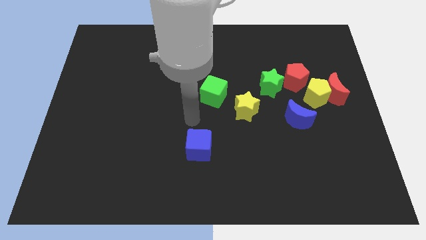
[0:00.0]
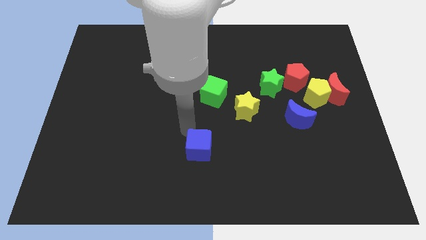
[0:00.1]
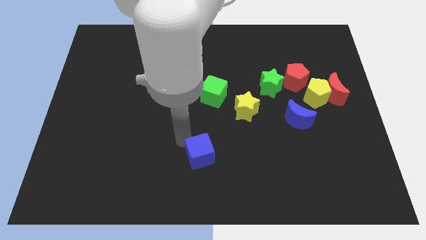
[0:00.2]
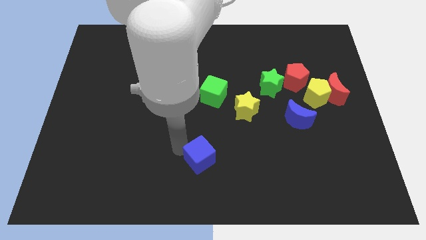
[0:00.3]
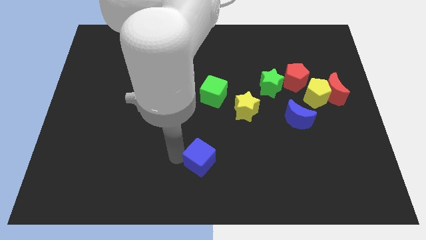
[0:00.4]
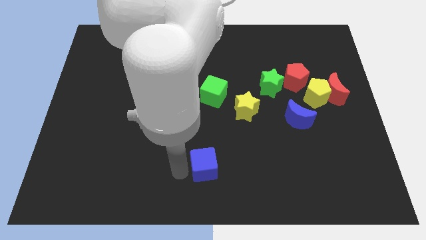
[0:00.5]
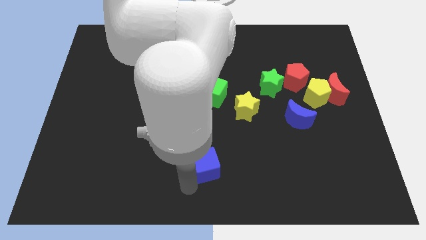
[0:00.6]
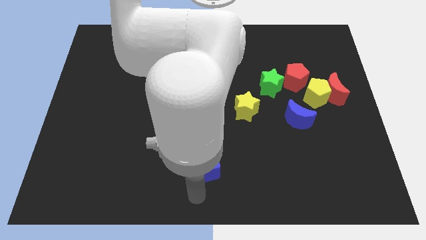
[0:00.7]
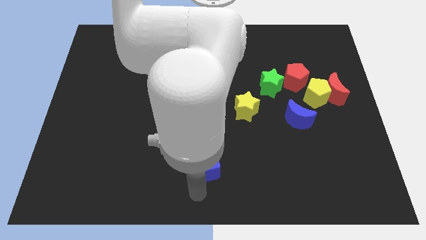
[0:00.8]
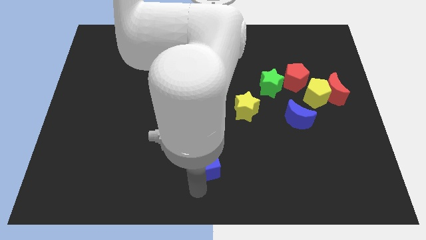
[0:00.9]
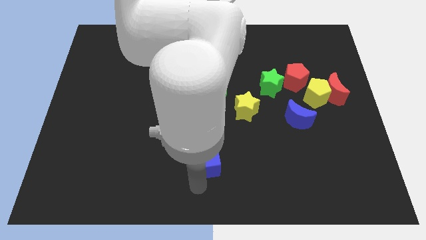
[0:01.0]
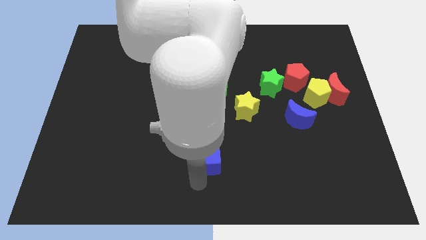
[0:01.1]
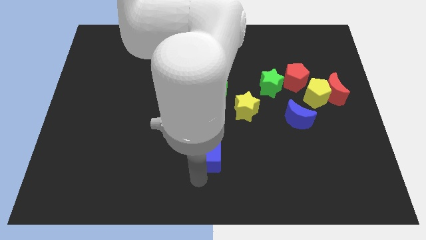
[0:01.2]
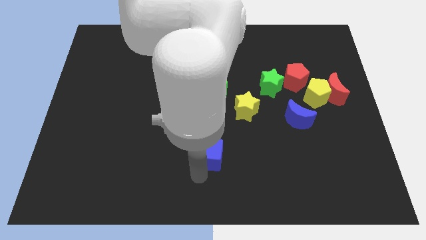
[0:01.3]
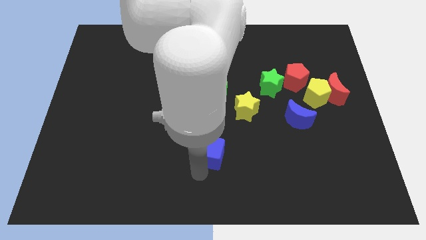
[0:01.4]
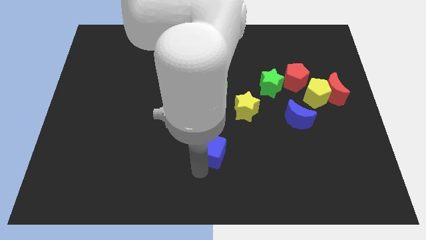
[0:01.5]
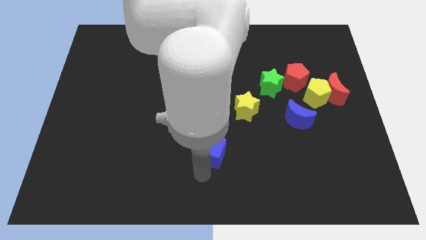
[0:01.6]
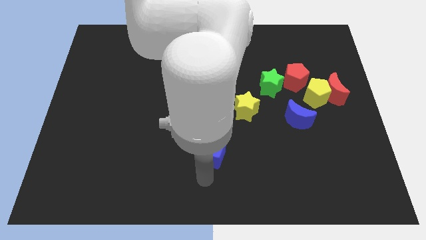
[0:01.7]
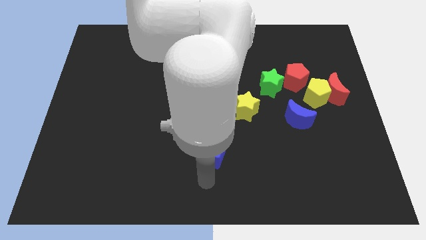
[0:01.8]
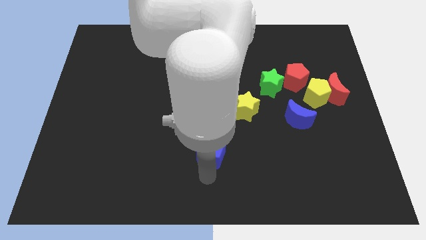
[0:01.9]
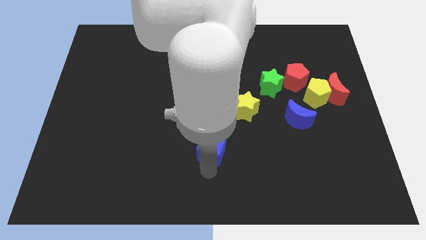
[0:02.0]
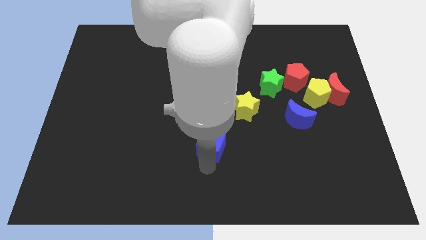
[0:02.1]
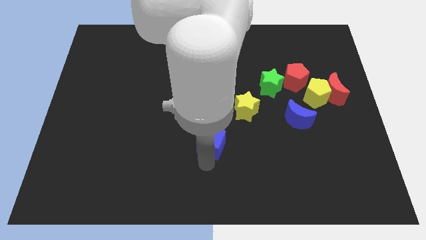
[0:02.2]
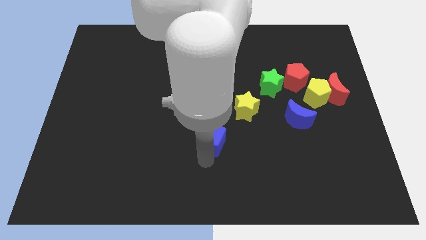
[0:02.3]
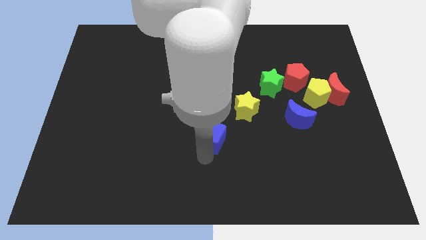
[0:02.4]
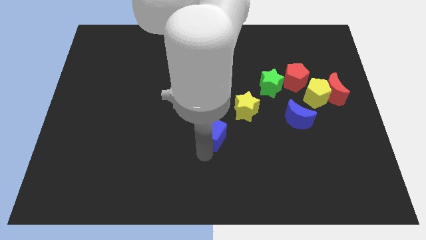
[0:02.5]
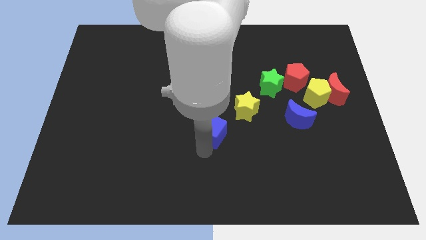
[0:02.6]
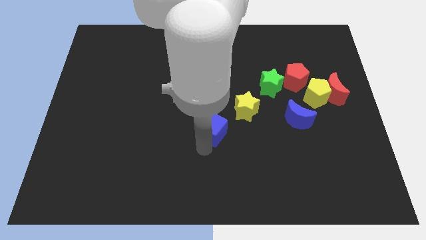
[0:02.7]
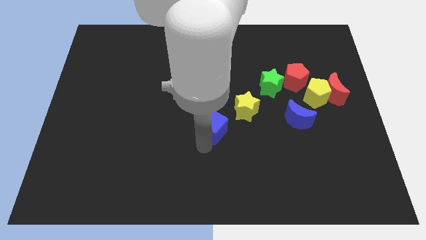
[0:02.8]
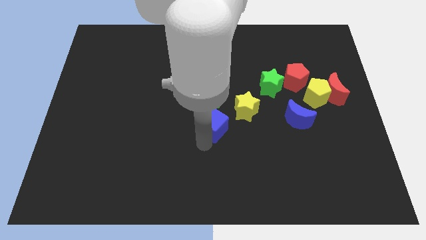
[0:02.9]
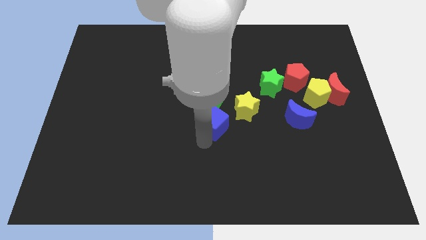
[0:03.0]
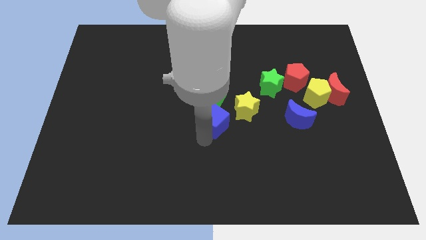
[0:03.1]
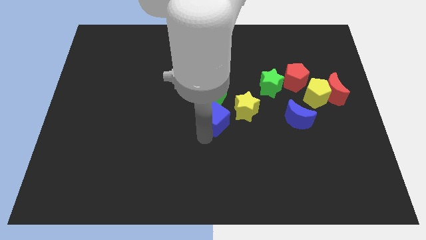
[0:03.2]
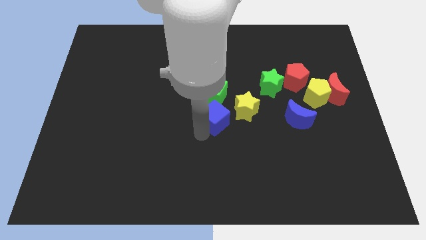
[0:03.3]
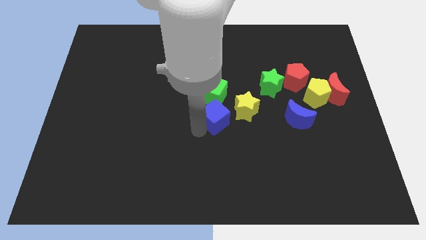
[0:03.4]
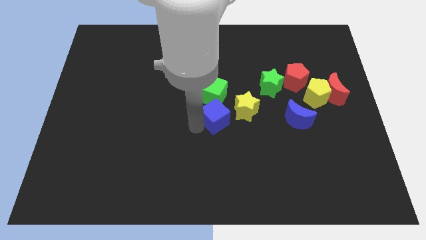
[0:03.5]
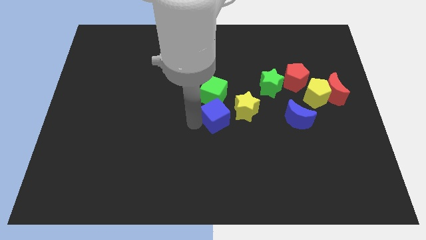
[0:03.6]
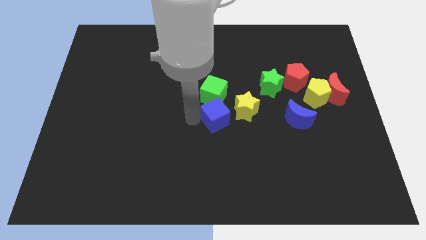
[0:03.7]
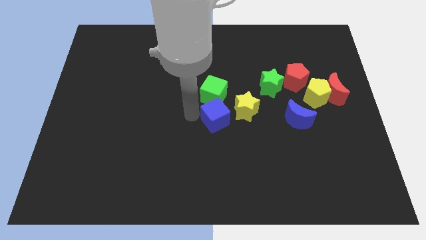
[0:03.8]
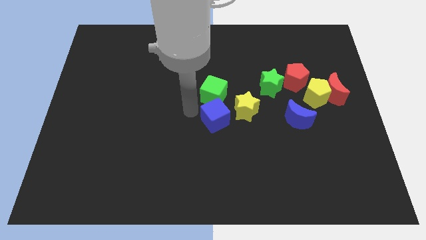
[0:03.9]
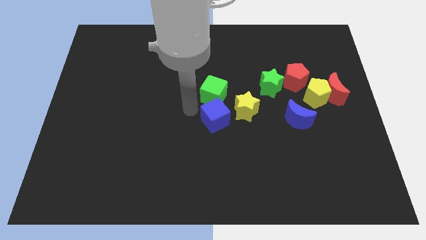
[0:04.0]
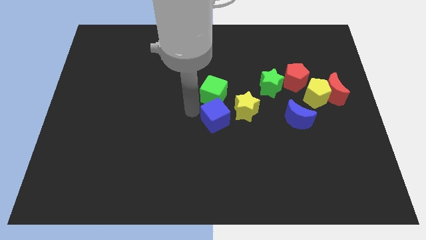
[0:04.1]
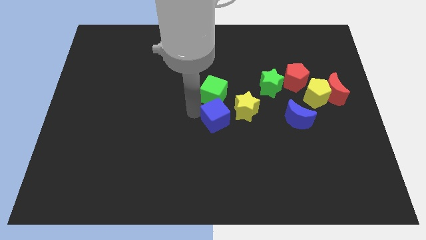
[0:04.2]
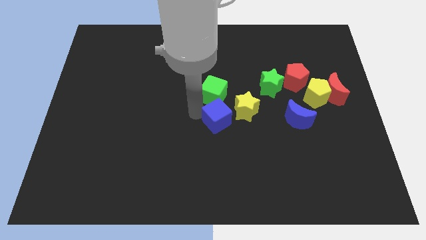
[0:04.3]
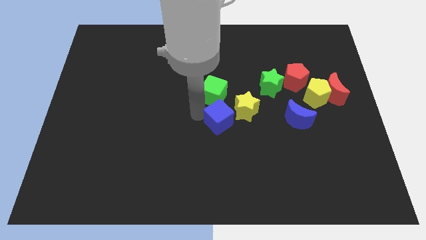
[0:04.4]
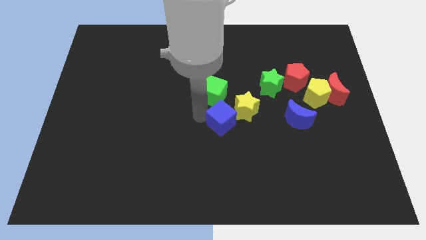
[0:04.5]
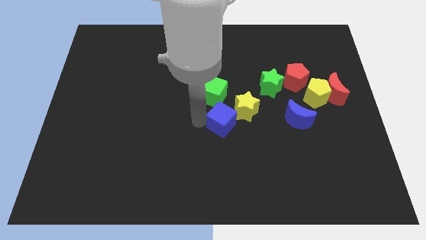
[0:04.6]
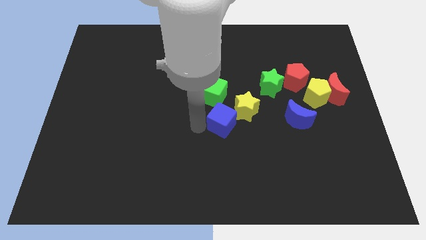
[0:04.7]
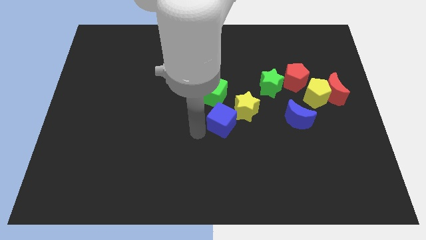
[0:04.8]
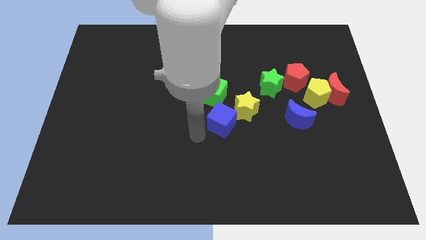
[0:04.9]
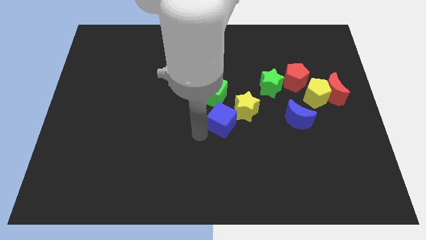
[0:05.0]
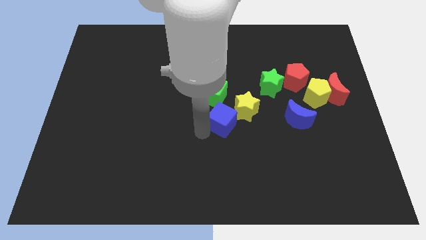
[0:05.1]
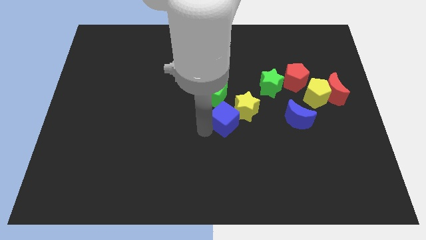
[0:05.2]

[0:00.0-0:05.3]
slide the blue cube to the yellow star

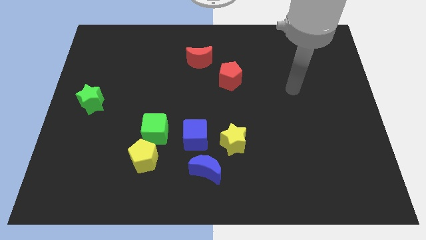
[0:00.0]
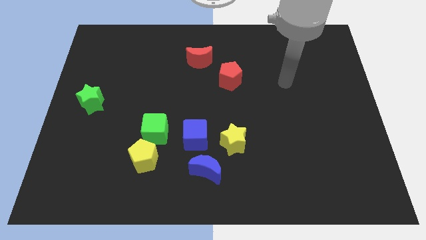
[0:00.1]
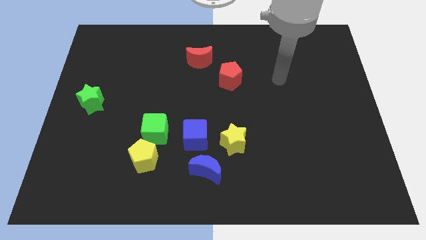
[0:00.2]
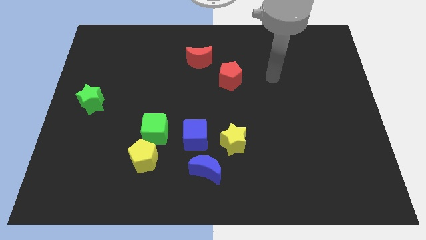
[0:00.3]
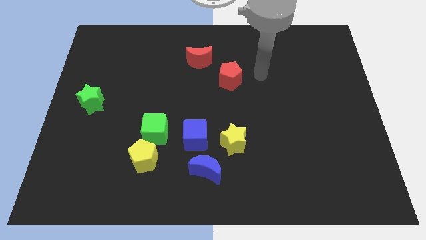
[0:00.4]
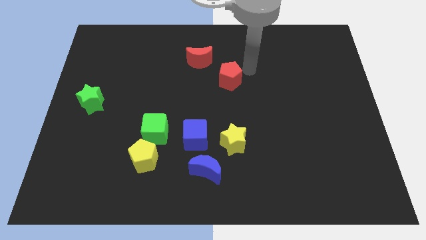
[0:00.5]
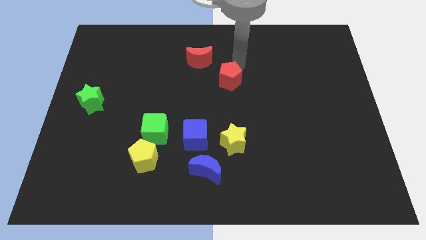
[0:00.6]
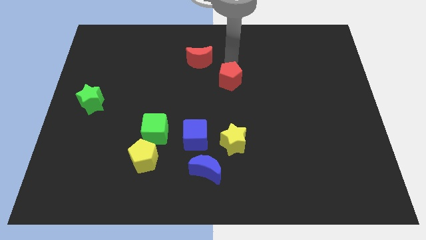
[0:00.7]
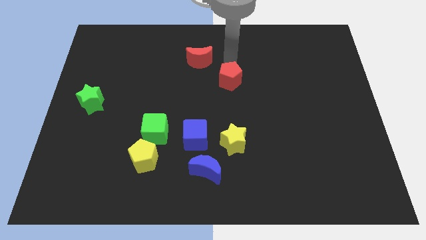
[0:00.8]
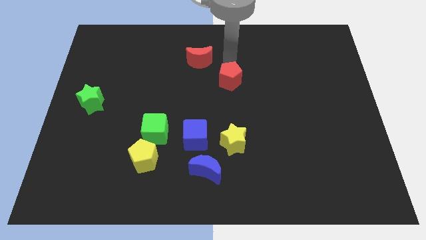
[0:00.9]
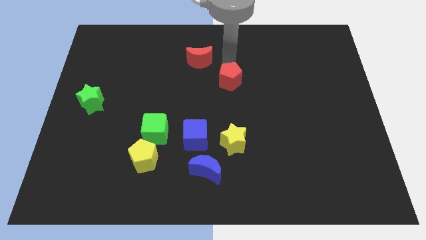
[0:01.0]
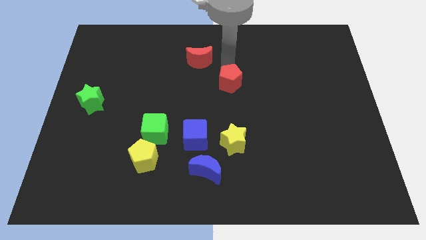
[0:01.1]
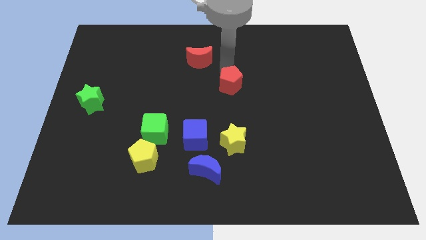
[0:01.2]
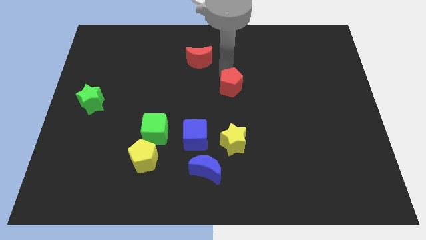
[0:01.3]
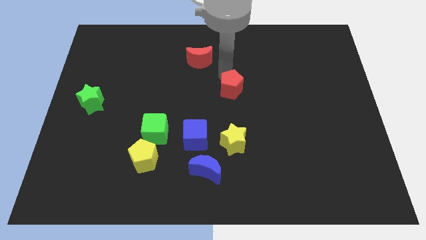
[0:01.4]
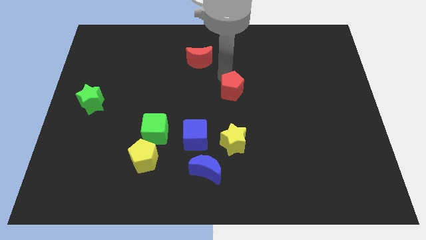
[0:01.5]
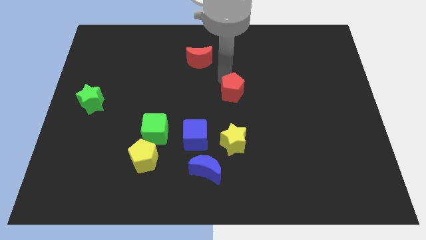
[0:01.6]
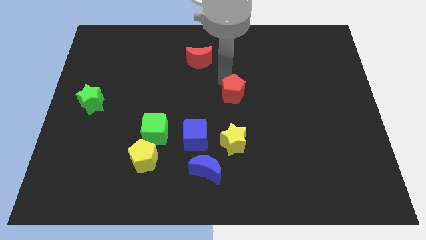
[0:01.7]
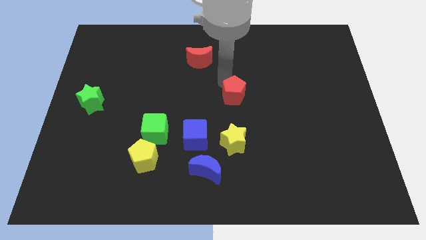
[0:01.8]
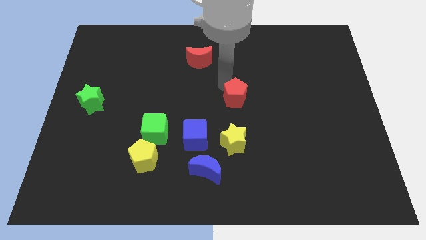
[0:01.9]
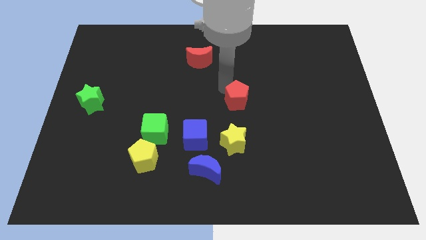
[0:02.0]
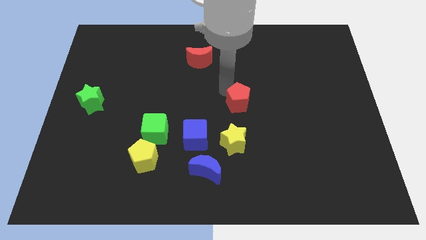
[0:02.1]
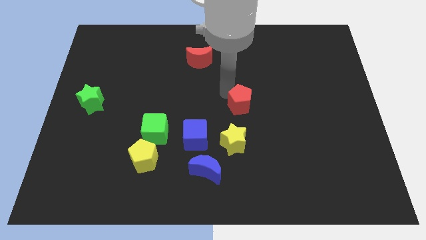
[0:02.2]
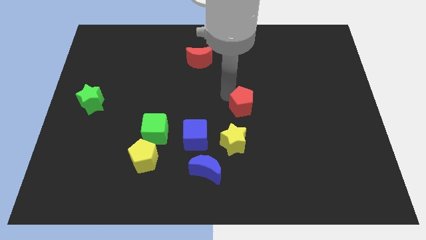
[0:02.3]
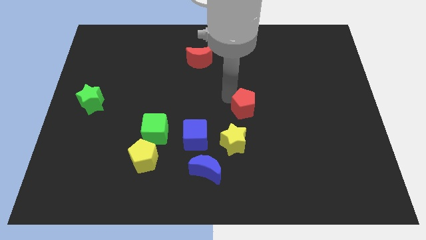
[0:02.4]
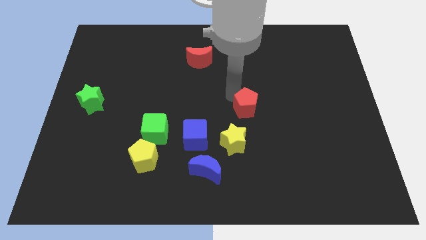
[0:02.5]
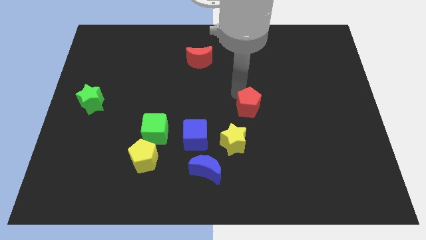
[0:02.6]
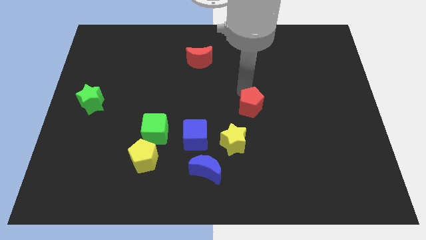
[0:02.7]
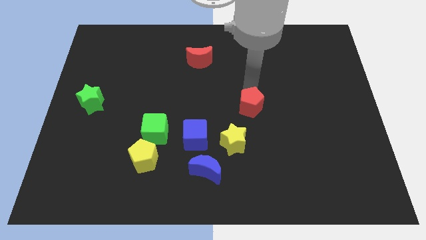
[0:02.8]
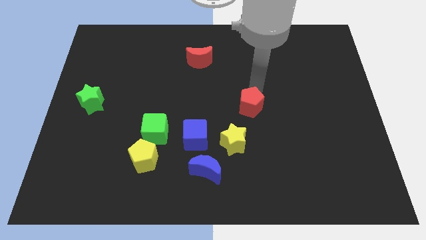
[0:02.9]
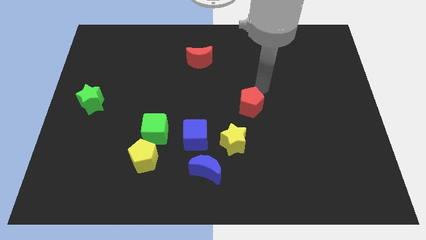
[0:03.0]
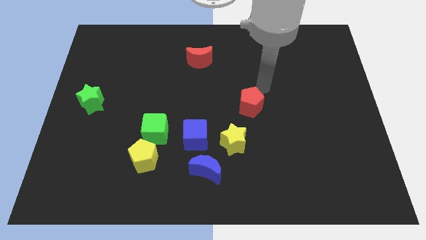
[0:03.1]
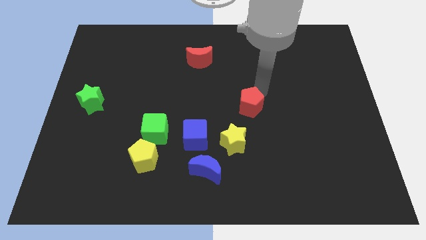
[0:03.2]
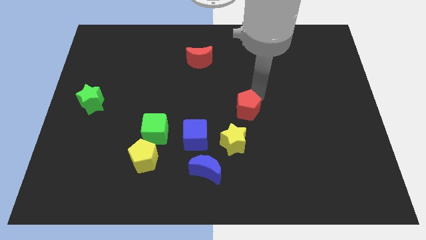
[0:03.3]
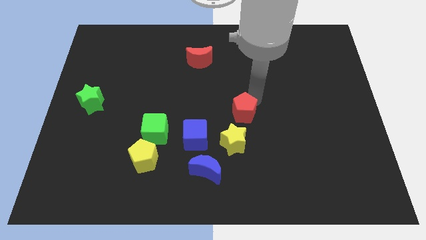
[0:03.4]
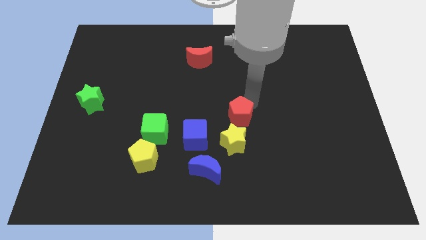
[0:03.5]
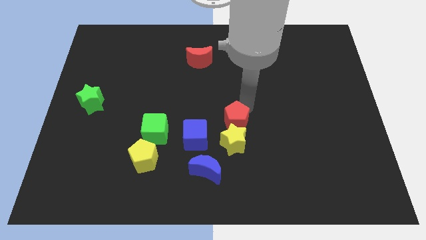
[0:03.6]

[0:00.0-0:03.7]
put the red pentagon towards the yellow star
